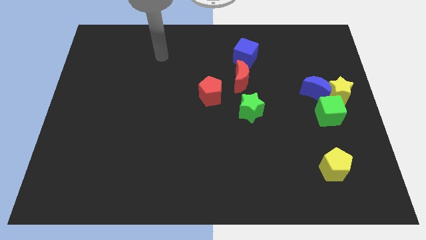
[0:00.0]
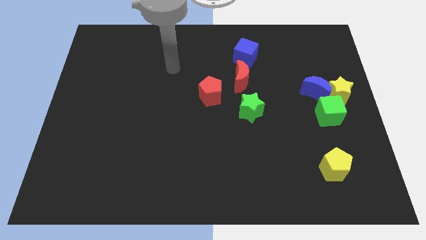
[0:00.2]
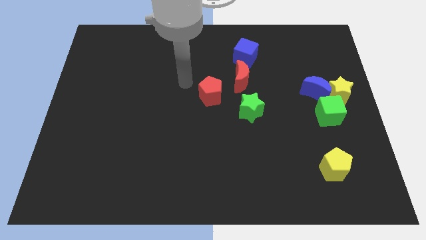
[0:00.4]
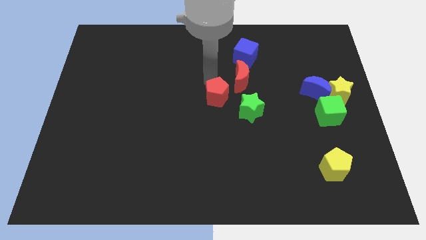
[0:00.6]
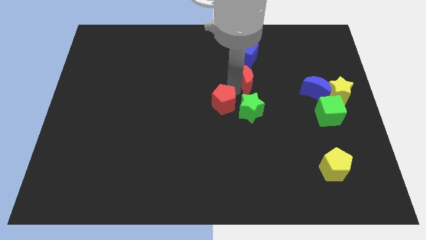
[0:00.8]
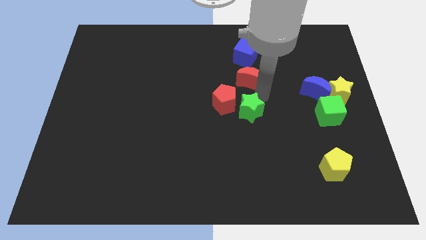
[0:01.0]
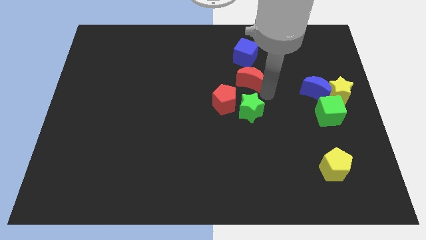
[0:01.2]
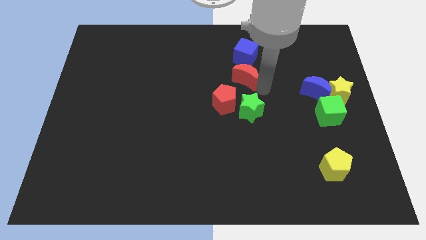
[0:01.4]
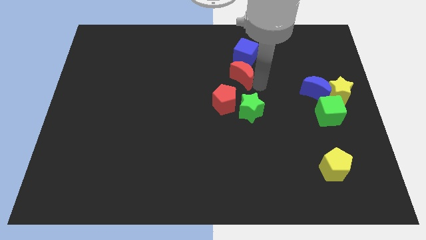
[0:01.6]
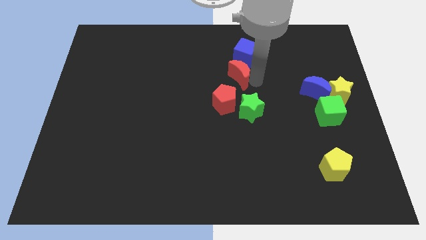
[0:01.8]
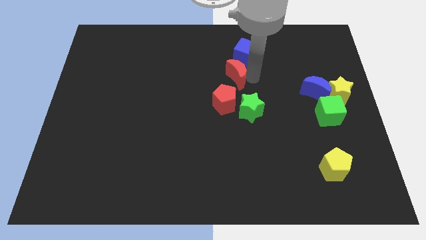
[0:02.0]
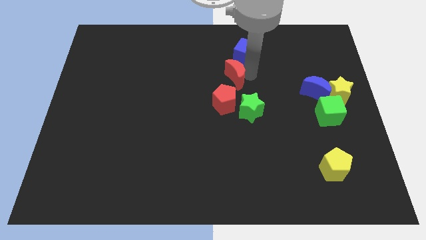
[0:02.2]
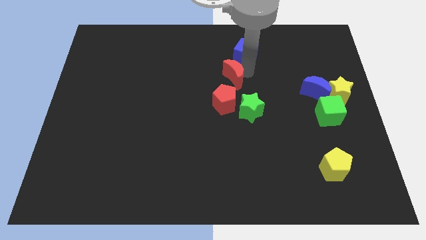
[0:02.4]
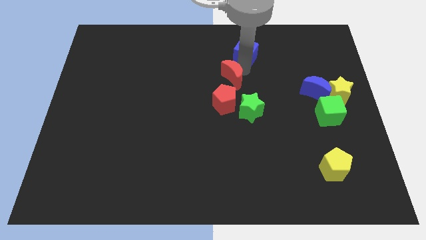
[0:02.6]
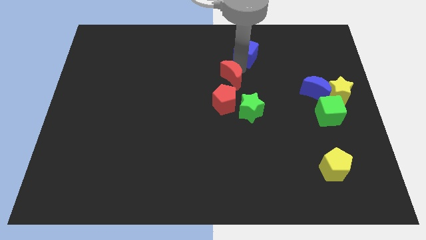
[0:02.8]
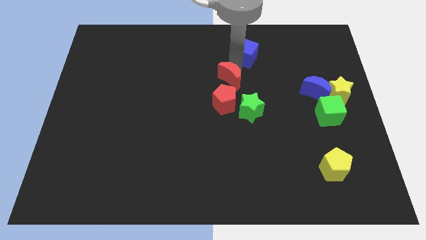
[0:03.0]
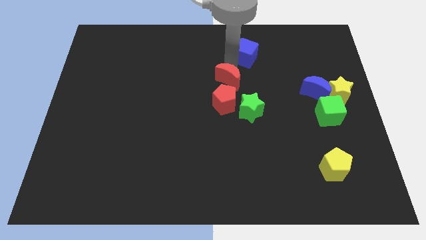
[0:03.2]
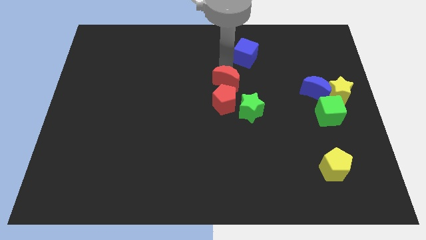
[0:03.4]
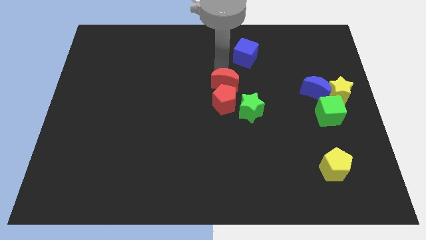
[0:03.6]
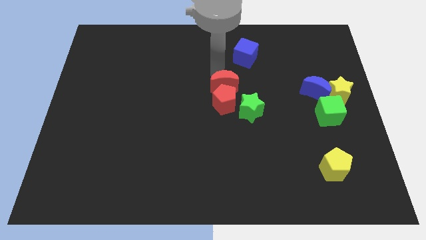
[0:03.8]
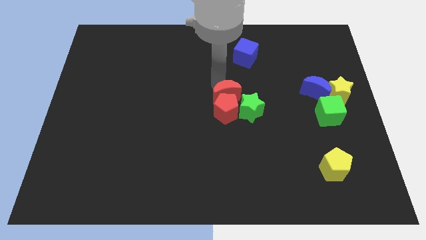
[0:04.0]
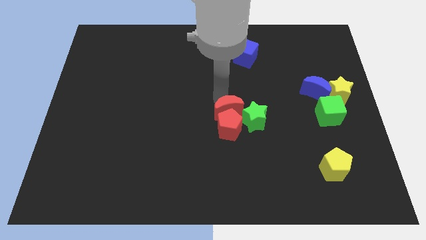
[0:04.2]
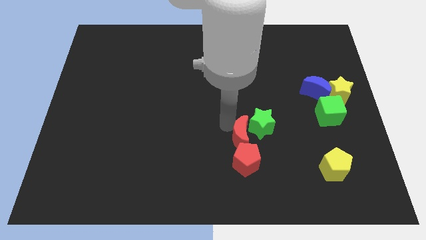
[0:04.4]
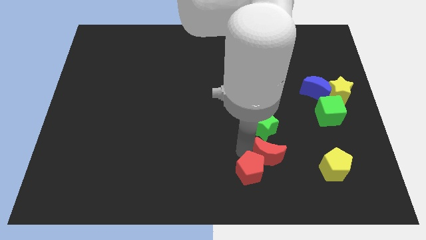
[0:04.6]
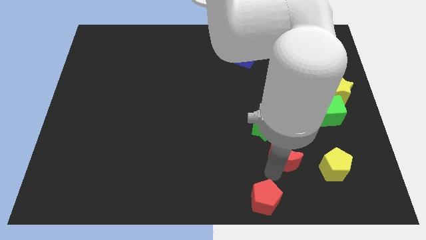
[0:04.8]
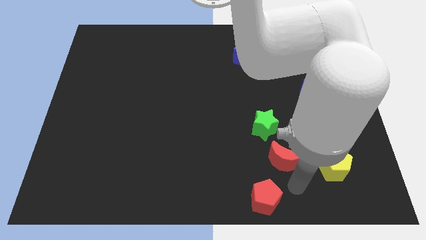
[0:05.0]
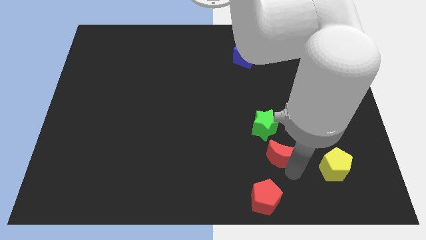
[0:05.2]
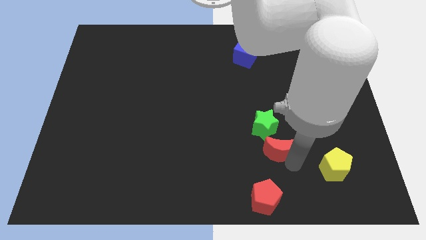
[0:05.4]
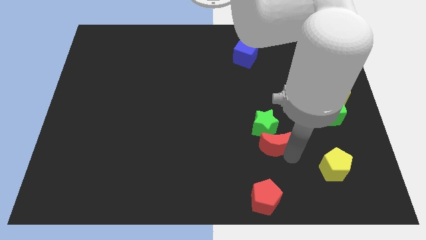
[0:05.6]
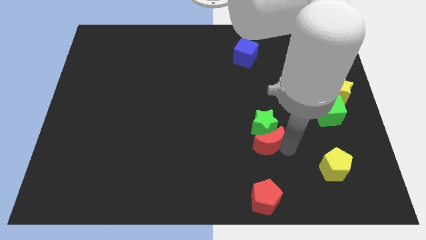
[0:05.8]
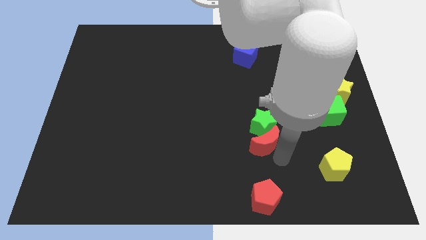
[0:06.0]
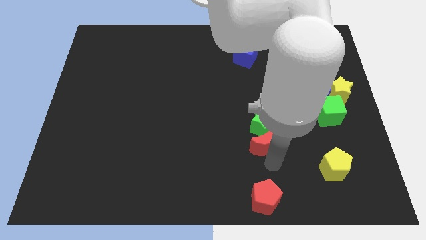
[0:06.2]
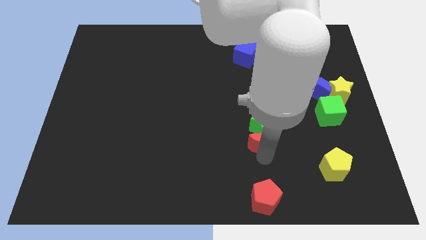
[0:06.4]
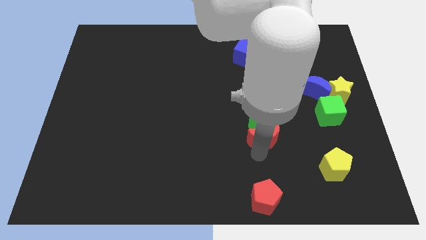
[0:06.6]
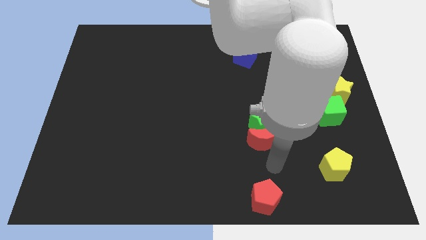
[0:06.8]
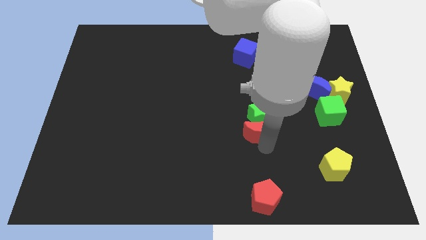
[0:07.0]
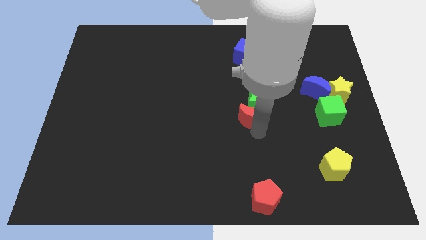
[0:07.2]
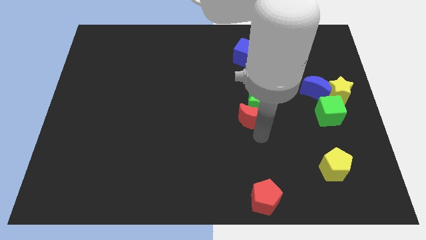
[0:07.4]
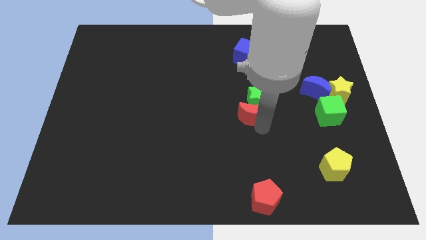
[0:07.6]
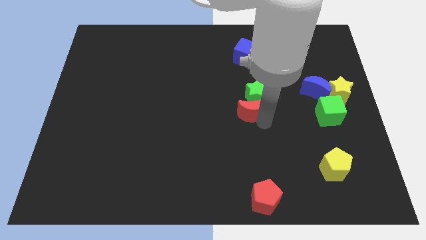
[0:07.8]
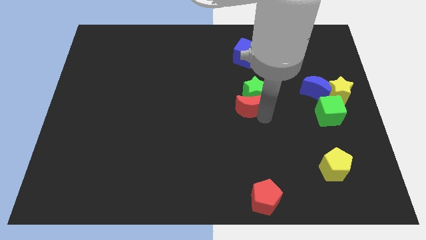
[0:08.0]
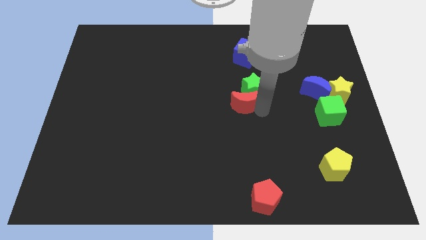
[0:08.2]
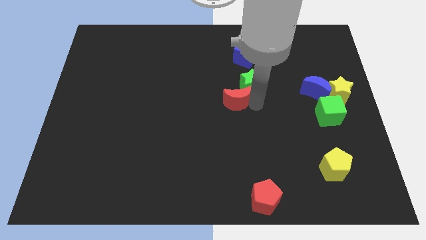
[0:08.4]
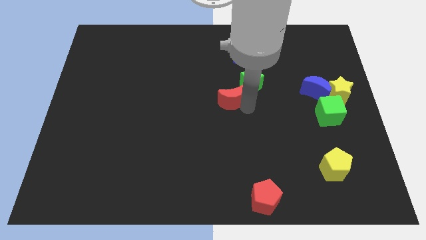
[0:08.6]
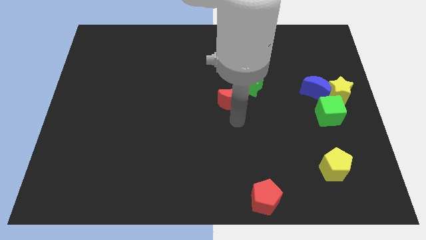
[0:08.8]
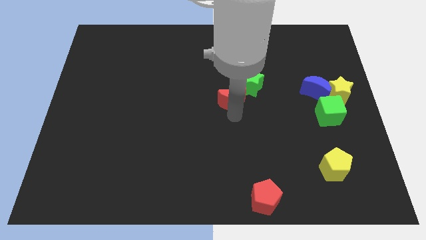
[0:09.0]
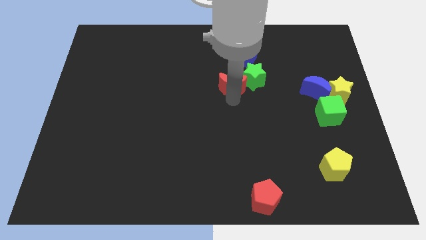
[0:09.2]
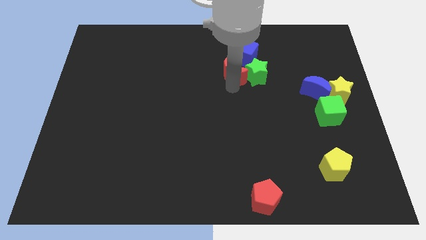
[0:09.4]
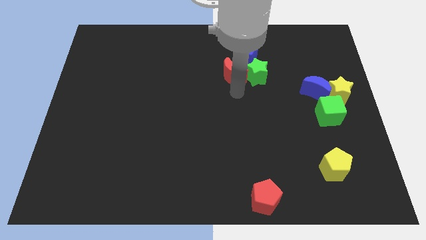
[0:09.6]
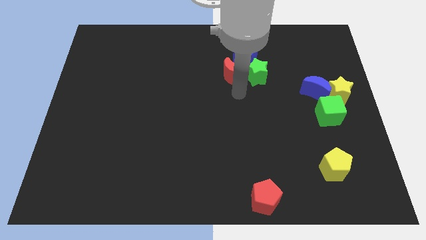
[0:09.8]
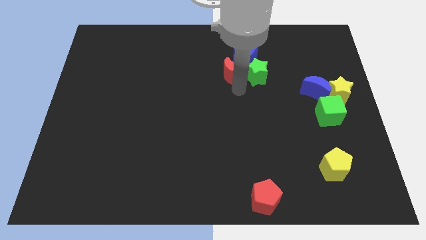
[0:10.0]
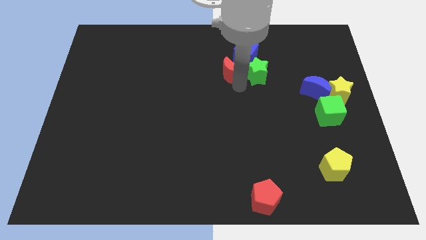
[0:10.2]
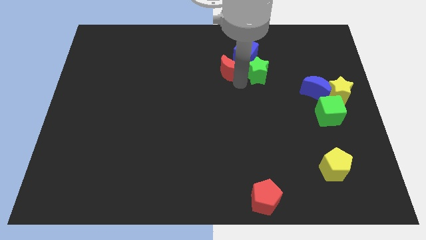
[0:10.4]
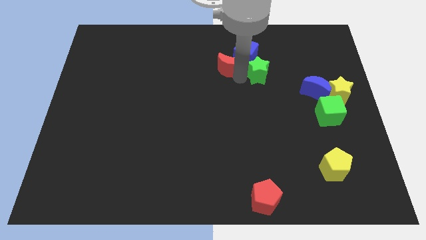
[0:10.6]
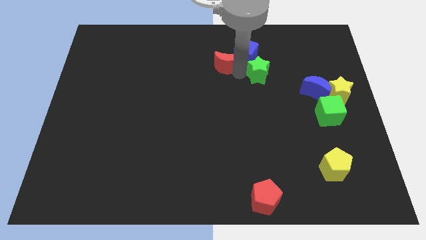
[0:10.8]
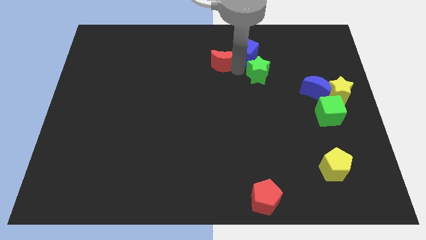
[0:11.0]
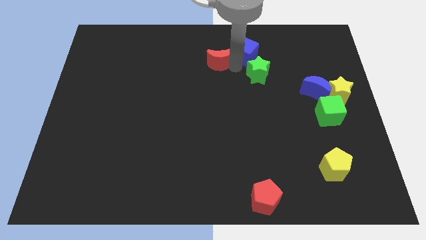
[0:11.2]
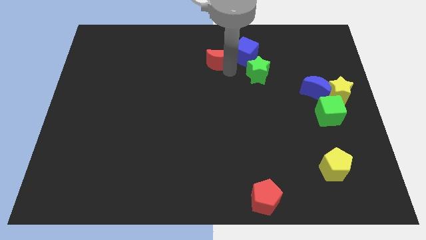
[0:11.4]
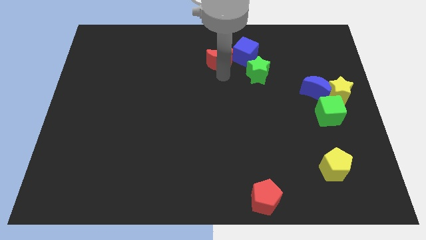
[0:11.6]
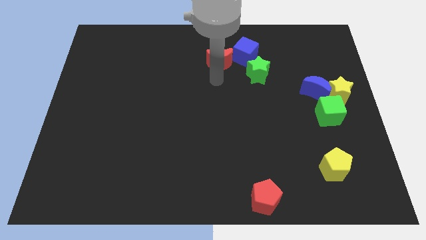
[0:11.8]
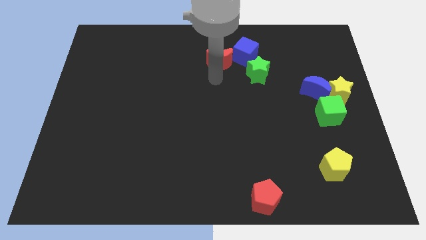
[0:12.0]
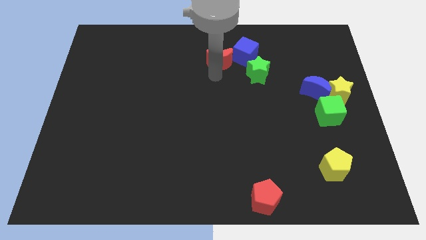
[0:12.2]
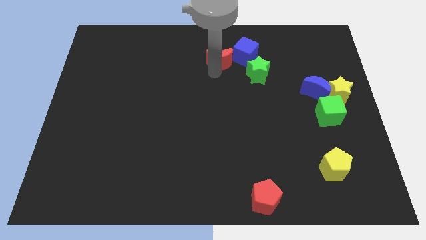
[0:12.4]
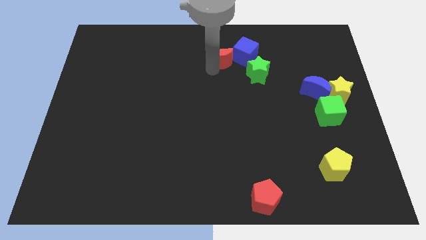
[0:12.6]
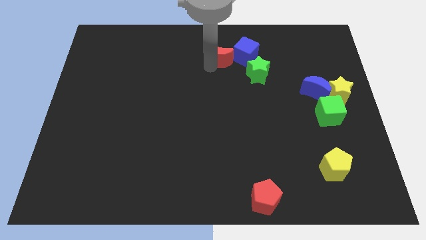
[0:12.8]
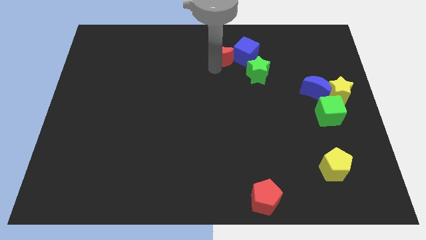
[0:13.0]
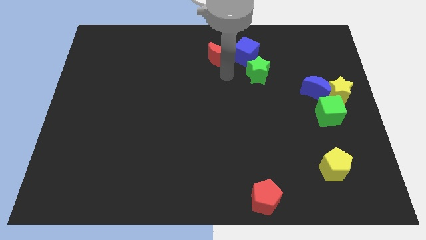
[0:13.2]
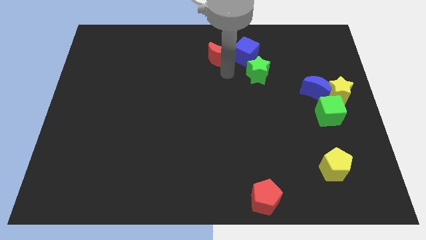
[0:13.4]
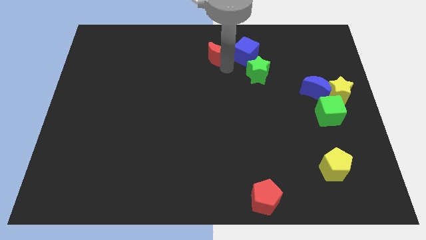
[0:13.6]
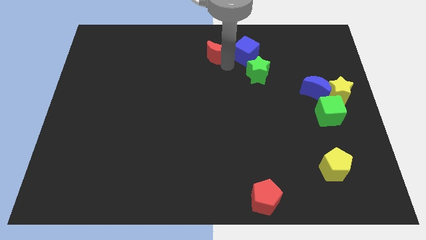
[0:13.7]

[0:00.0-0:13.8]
slide the red moon to the top
